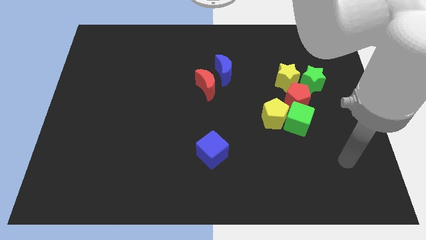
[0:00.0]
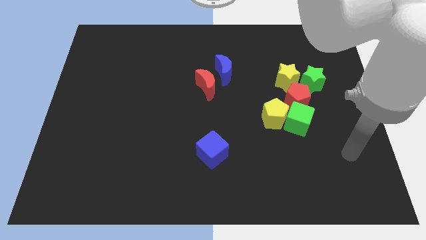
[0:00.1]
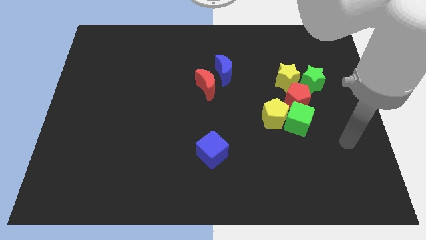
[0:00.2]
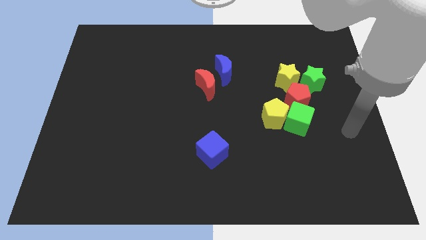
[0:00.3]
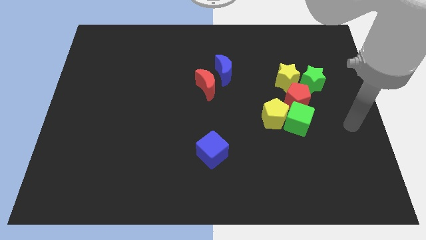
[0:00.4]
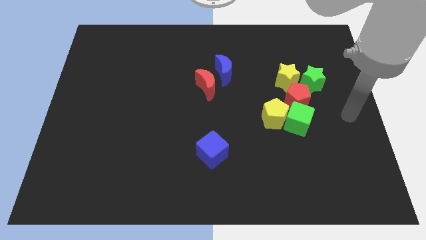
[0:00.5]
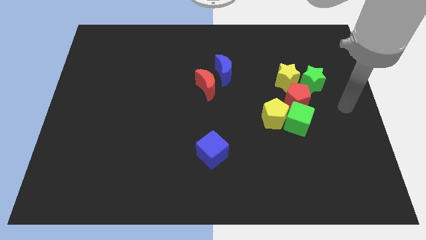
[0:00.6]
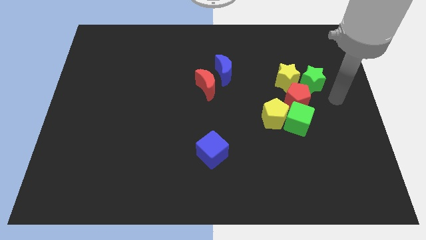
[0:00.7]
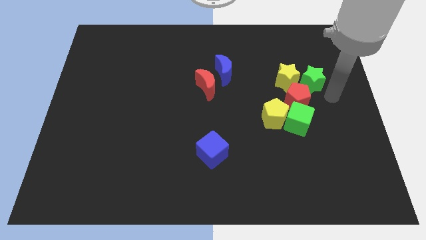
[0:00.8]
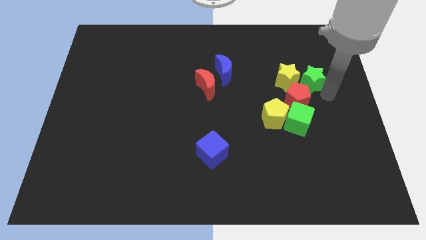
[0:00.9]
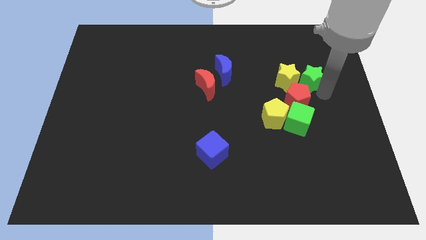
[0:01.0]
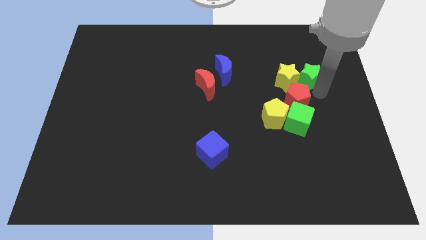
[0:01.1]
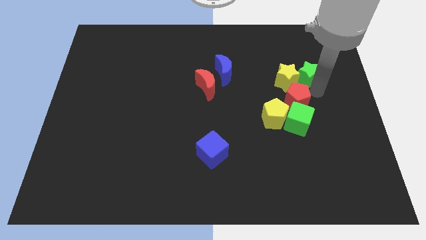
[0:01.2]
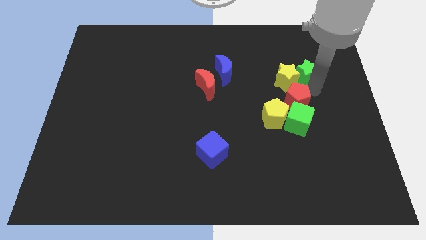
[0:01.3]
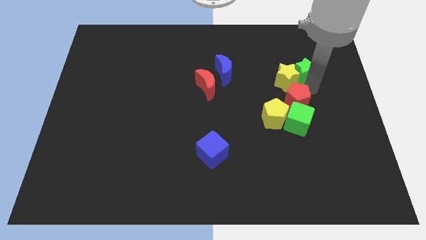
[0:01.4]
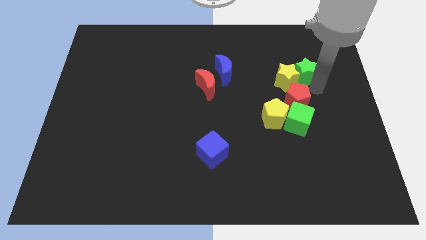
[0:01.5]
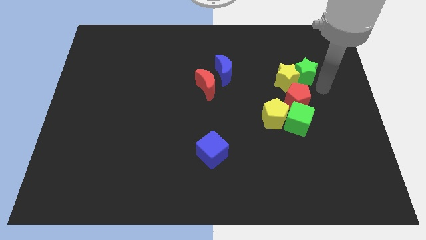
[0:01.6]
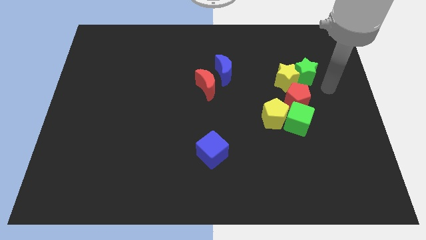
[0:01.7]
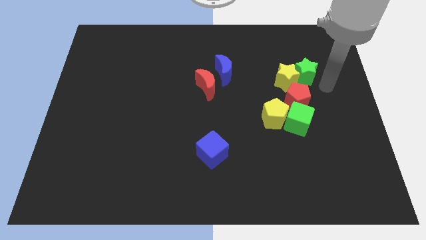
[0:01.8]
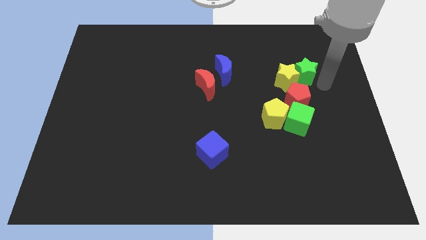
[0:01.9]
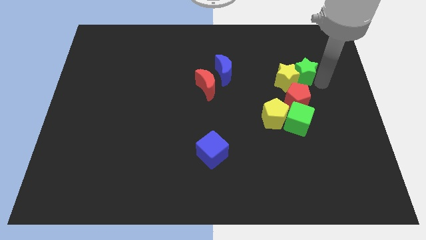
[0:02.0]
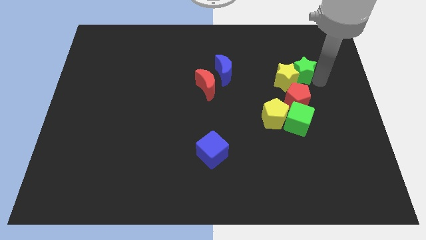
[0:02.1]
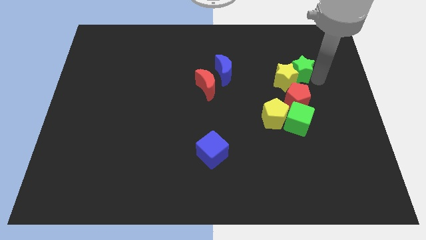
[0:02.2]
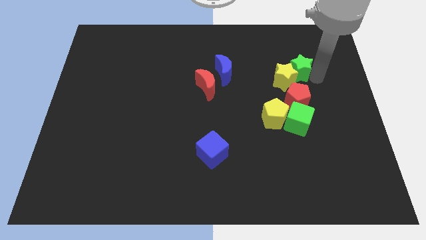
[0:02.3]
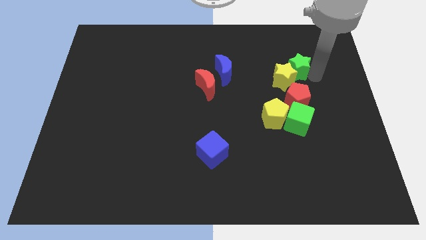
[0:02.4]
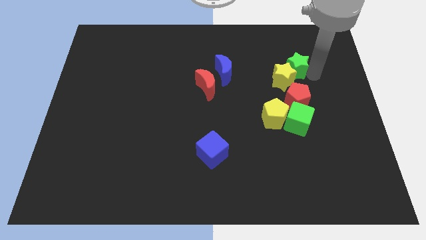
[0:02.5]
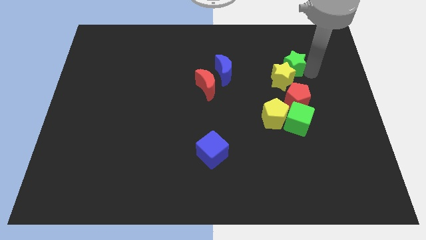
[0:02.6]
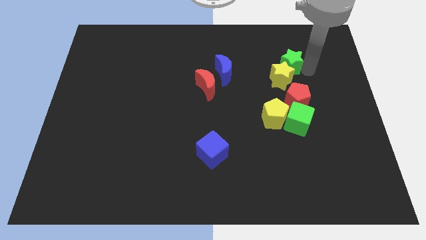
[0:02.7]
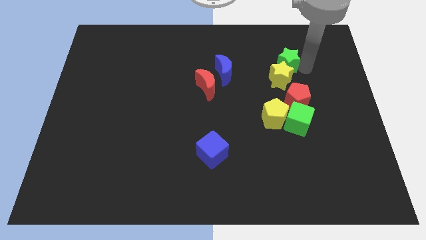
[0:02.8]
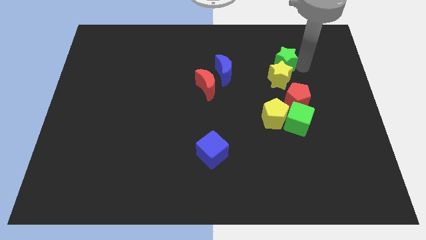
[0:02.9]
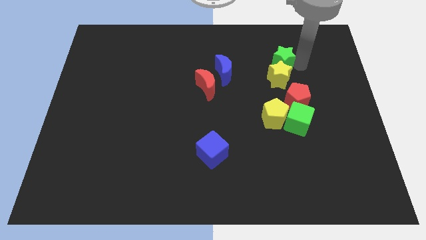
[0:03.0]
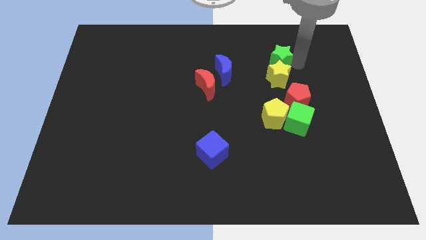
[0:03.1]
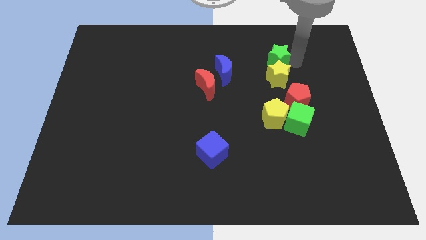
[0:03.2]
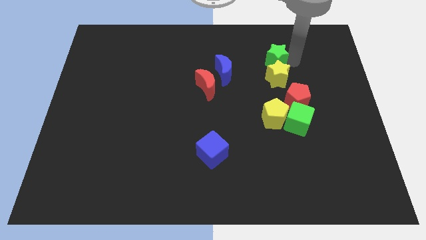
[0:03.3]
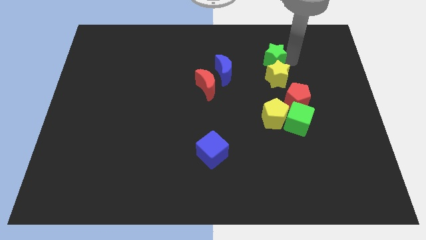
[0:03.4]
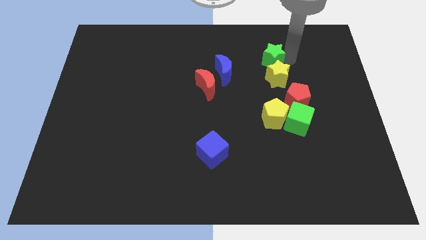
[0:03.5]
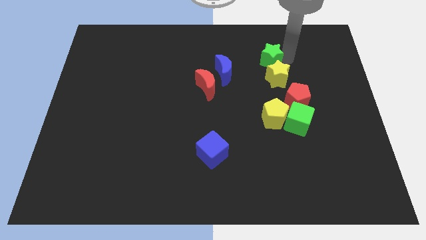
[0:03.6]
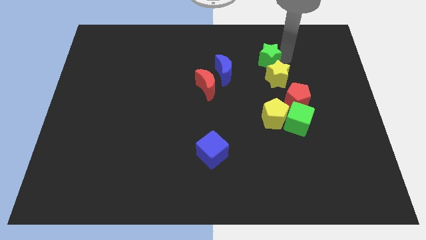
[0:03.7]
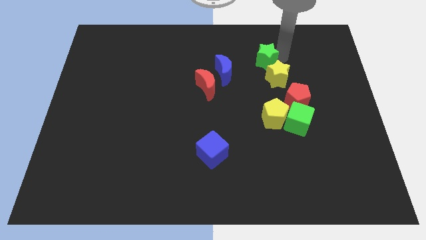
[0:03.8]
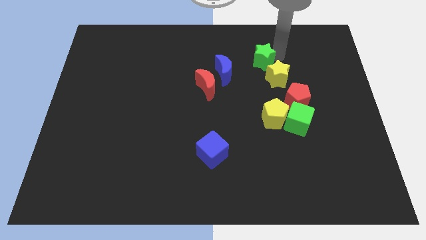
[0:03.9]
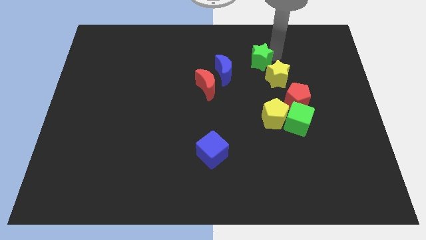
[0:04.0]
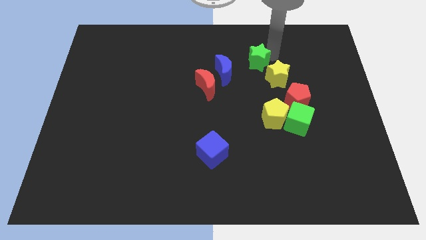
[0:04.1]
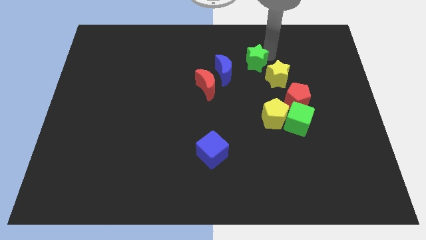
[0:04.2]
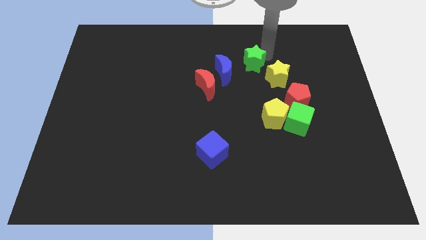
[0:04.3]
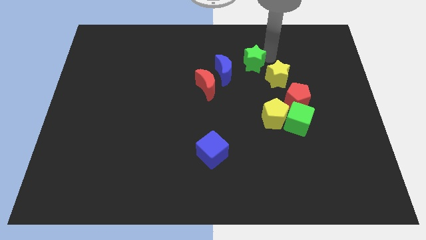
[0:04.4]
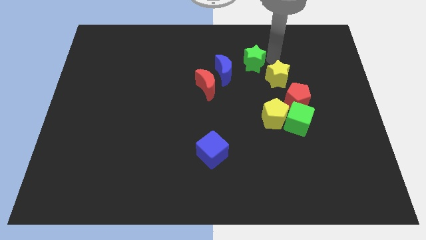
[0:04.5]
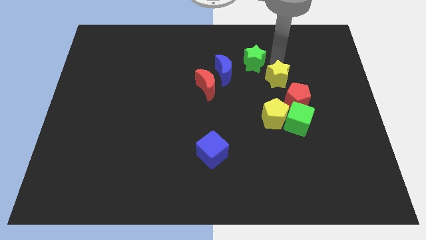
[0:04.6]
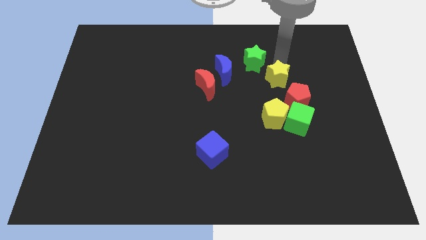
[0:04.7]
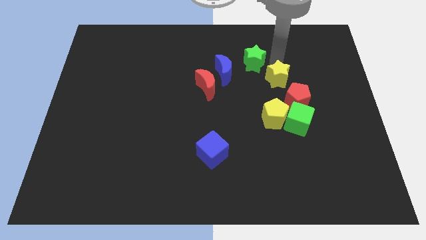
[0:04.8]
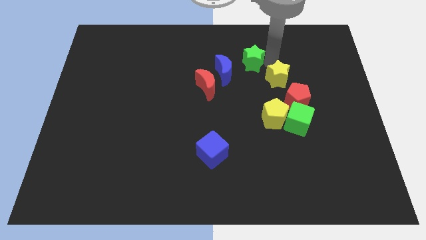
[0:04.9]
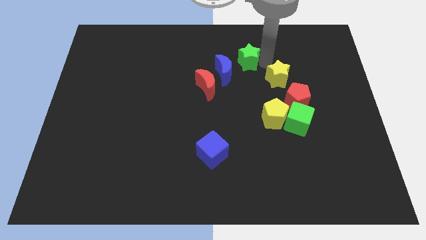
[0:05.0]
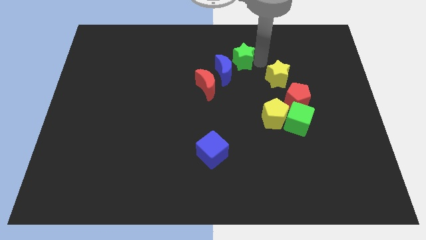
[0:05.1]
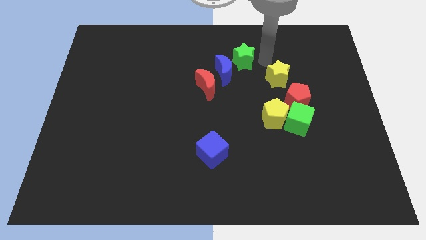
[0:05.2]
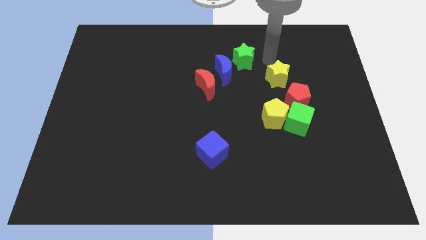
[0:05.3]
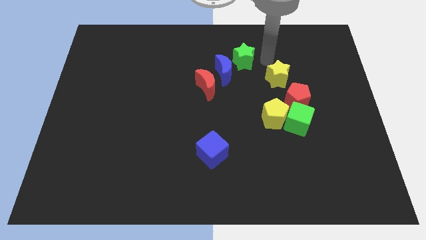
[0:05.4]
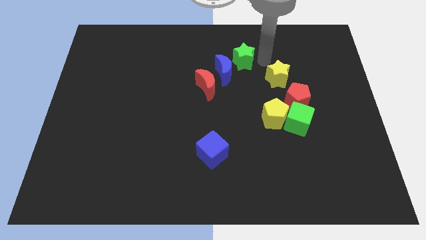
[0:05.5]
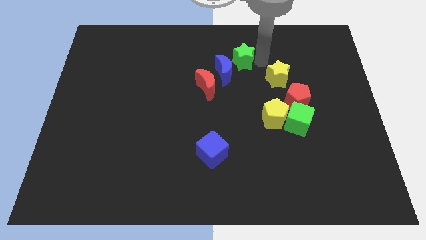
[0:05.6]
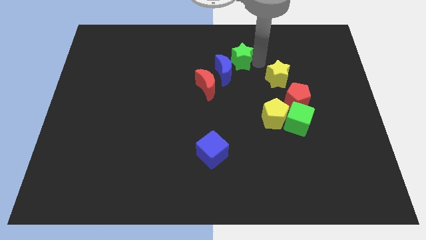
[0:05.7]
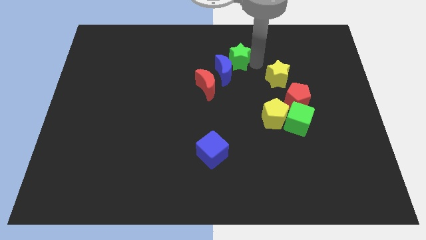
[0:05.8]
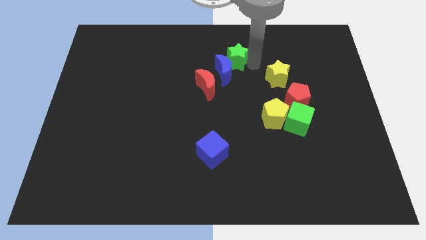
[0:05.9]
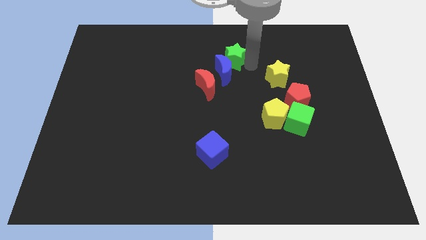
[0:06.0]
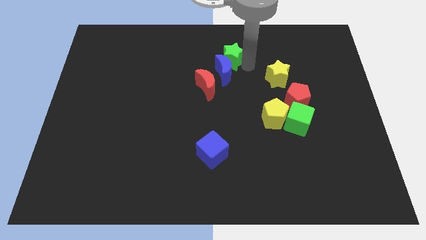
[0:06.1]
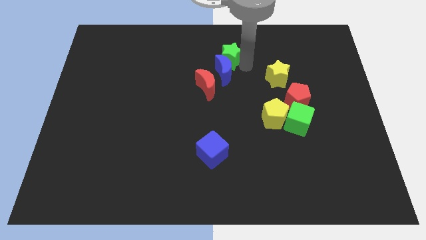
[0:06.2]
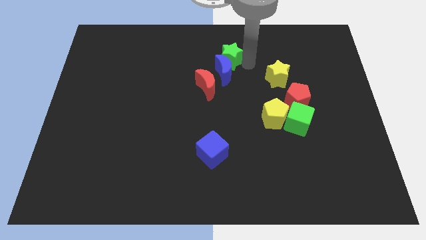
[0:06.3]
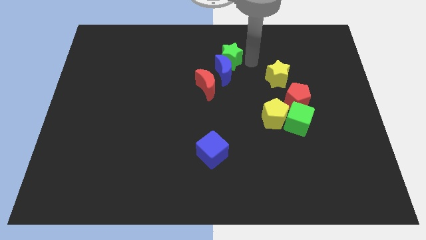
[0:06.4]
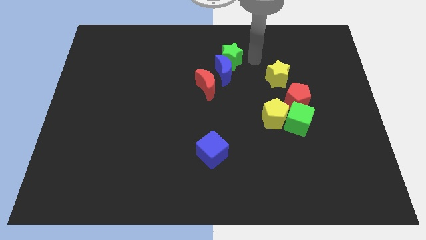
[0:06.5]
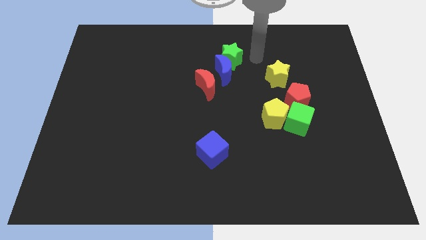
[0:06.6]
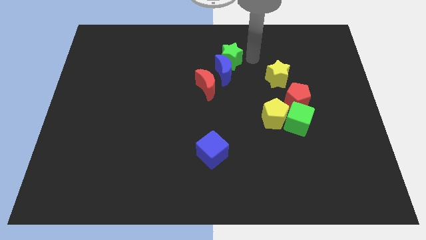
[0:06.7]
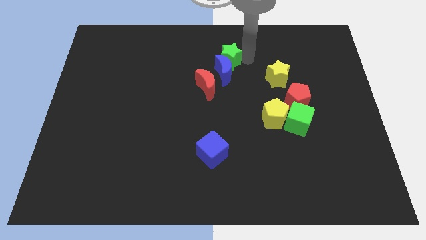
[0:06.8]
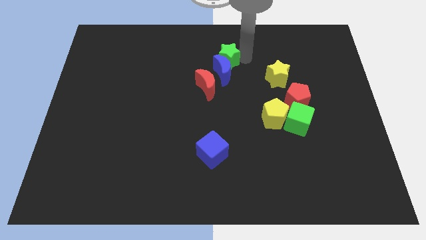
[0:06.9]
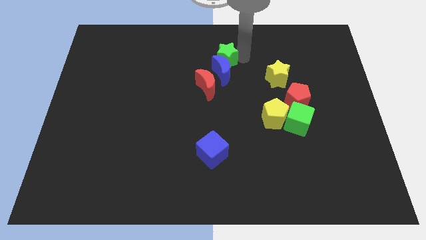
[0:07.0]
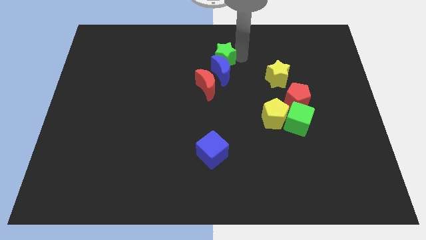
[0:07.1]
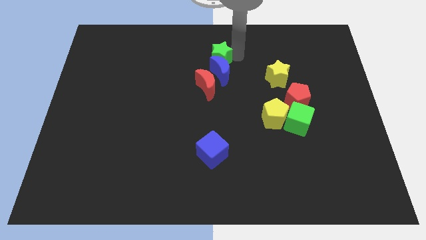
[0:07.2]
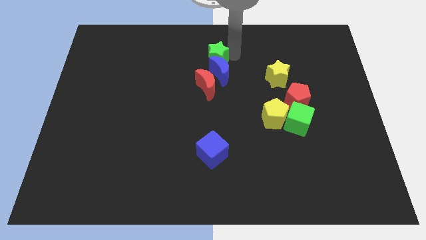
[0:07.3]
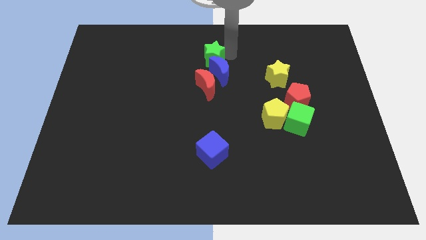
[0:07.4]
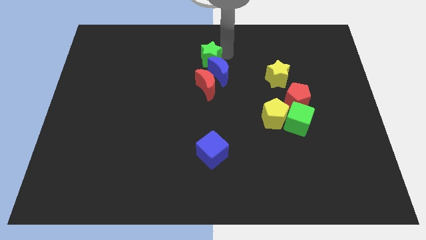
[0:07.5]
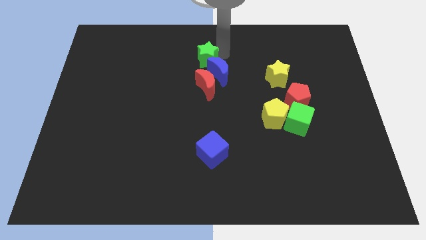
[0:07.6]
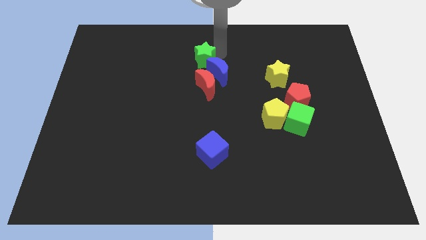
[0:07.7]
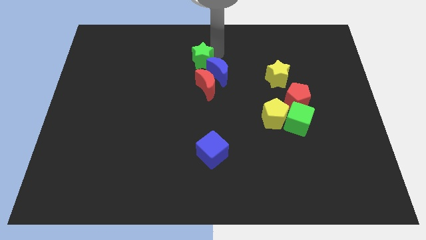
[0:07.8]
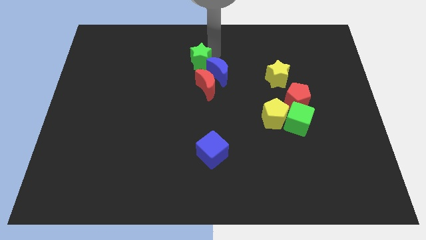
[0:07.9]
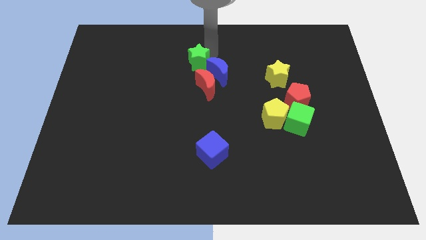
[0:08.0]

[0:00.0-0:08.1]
push the green star to the top left side of the red moon
